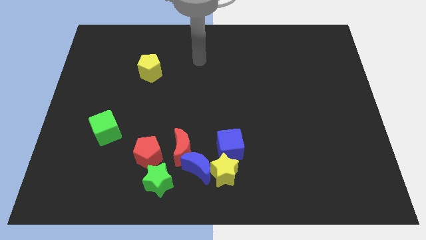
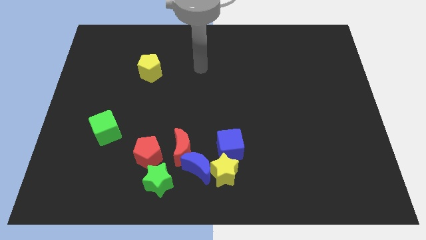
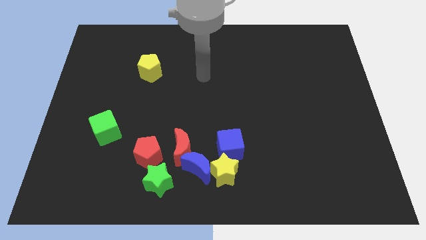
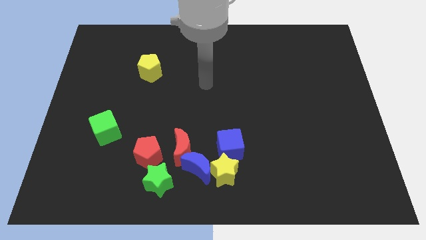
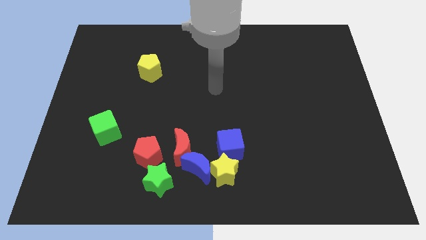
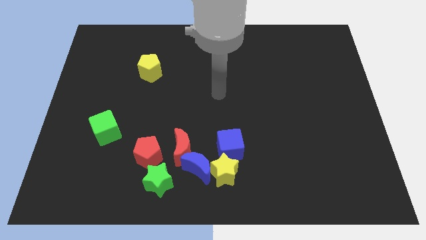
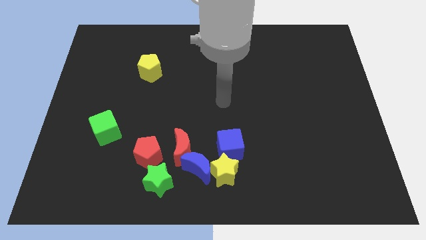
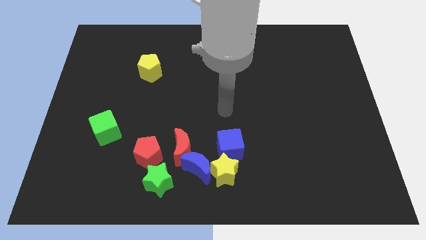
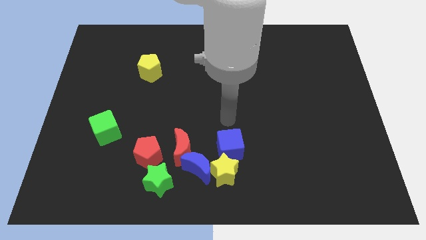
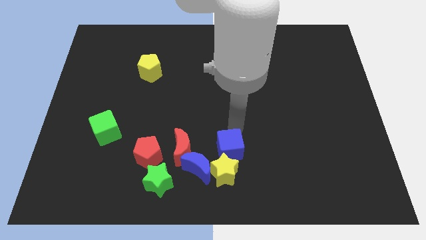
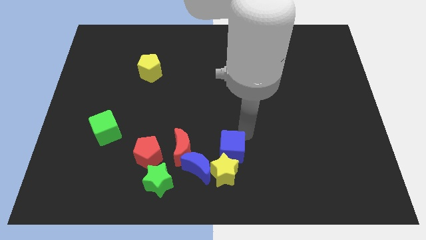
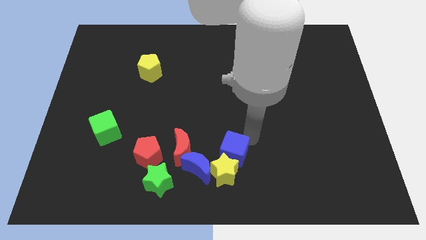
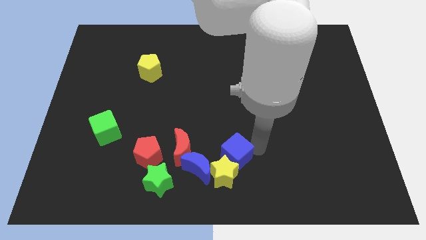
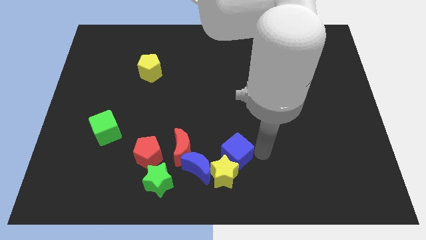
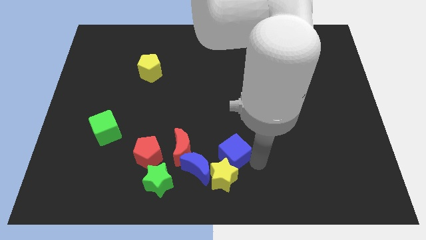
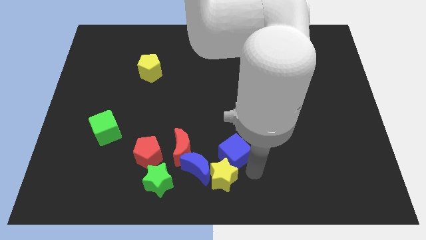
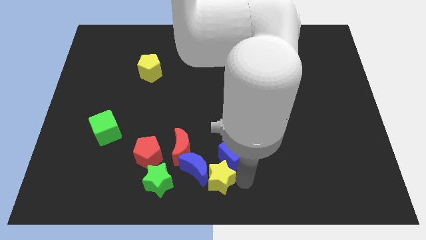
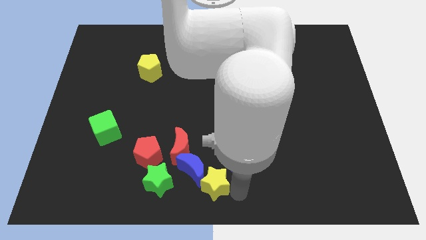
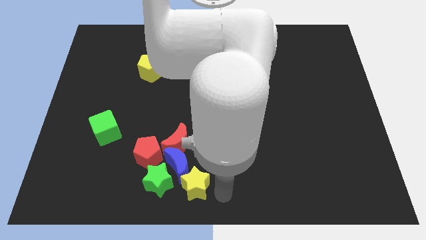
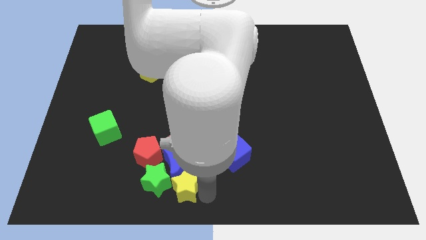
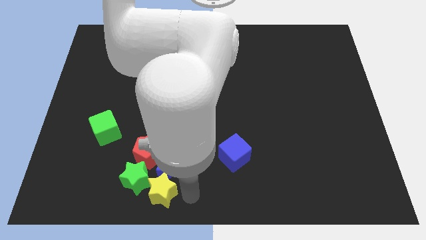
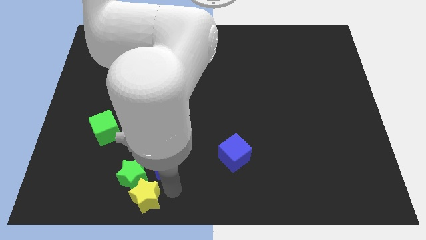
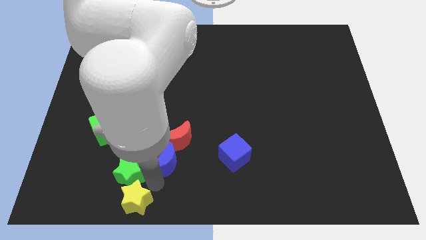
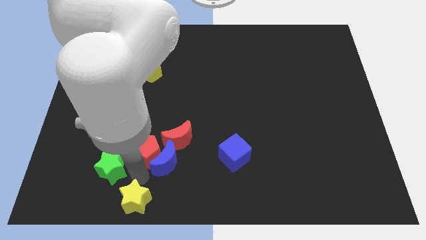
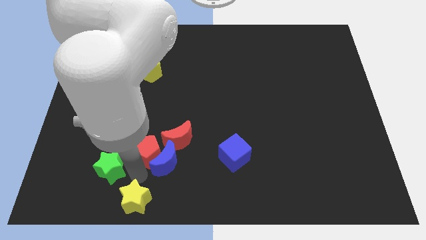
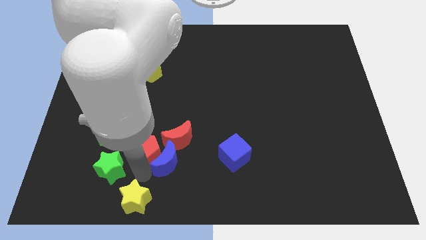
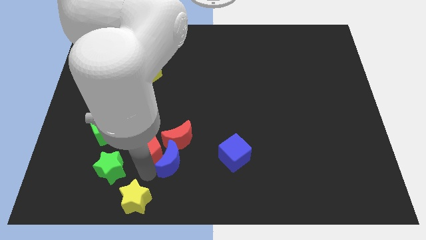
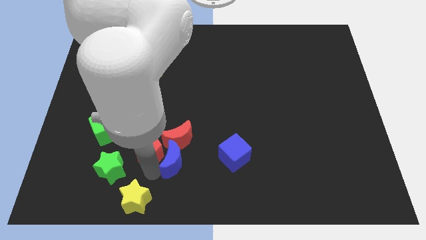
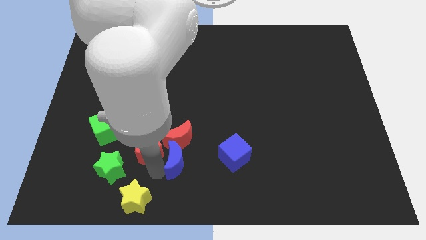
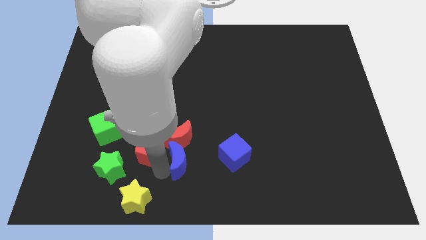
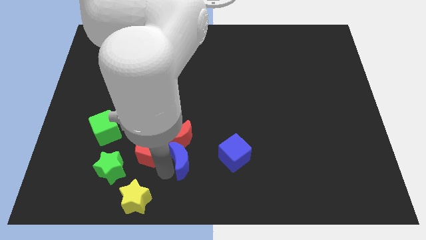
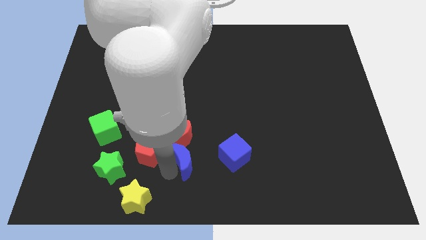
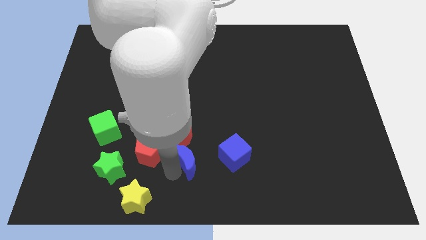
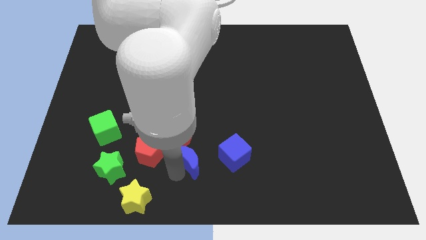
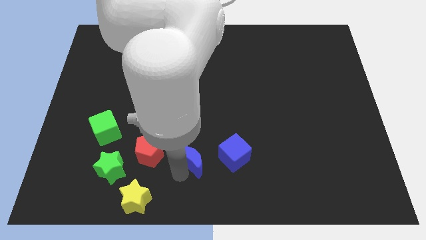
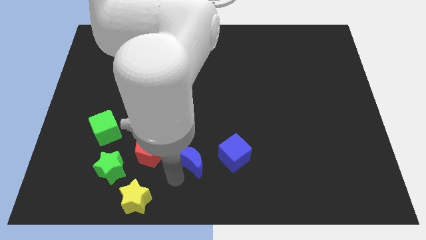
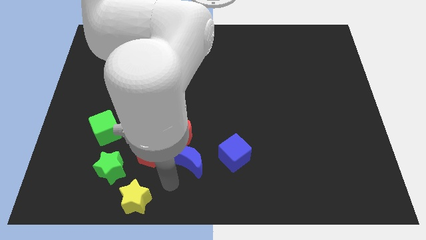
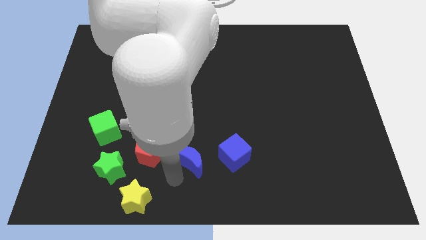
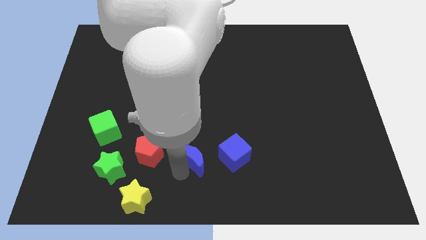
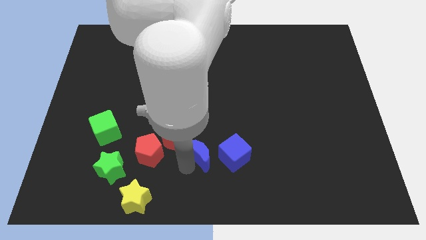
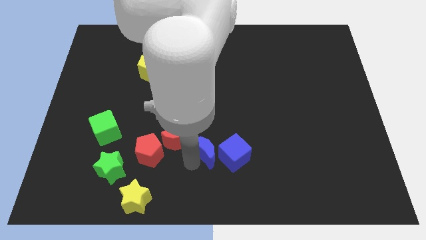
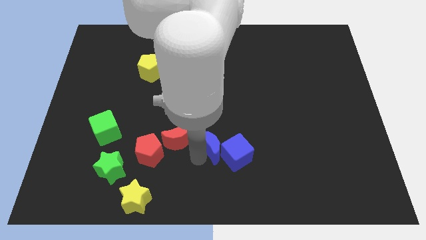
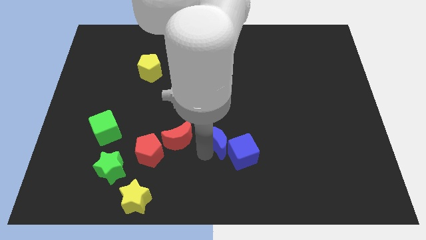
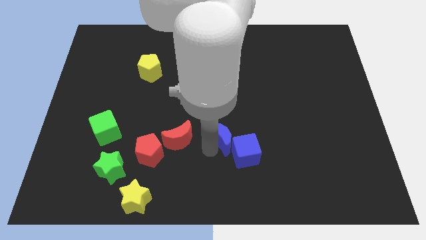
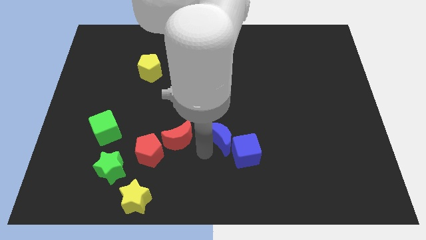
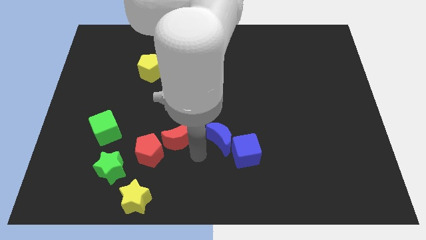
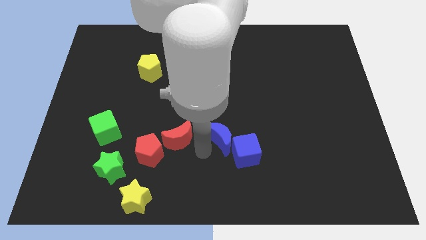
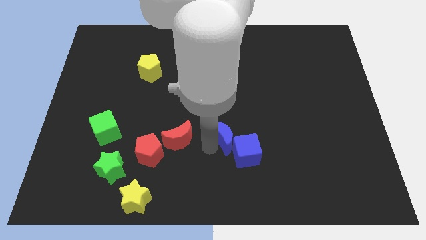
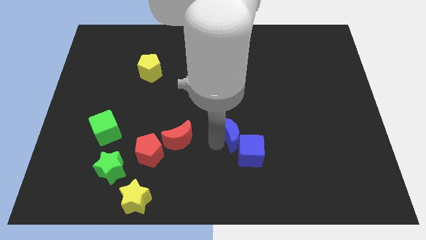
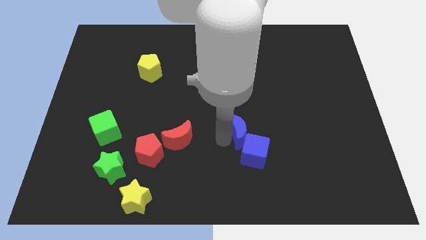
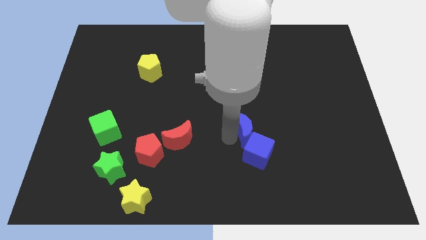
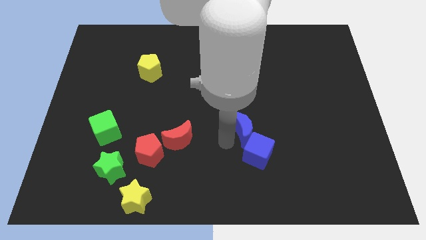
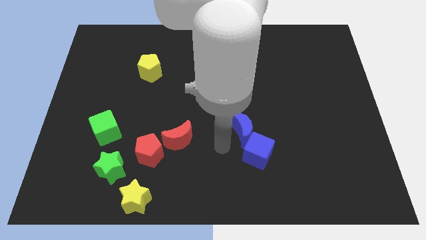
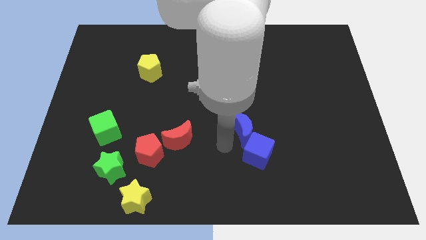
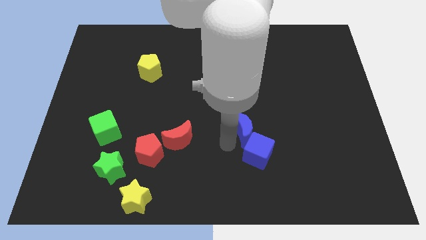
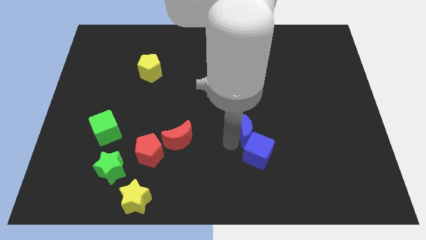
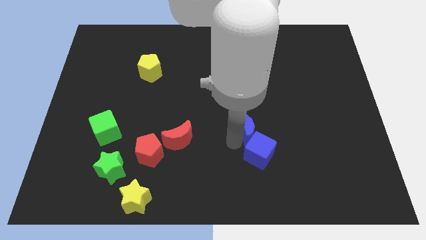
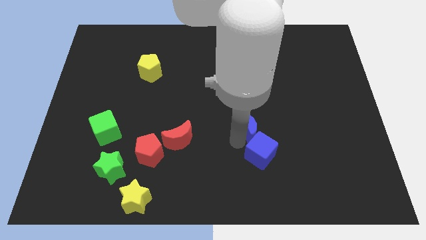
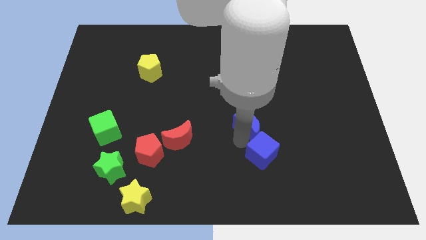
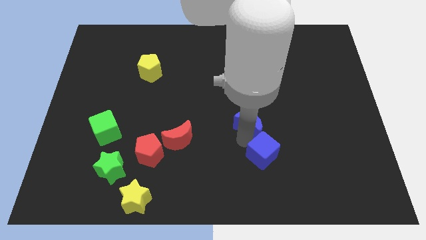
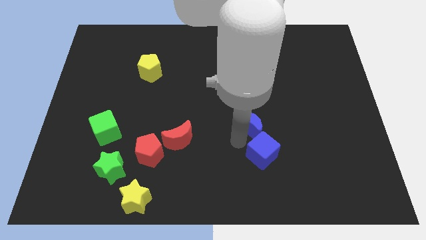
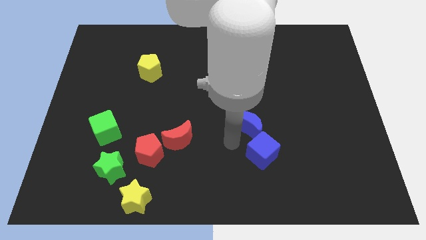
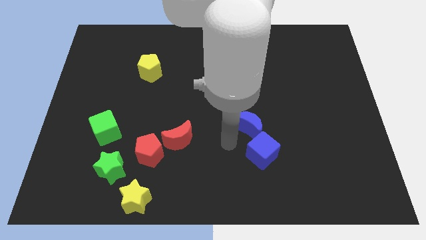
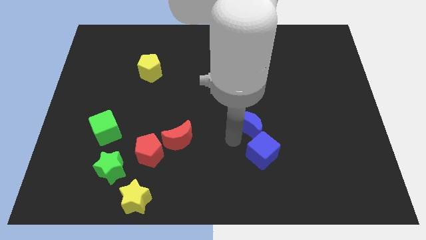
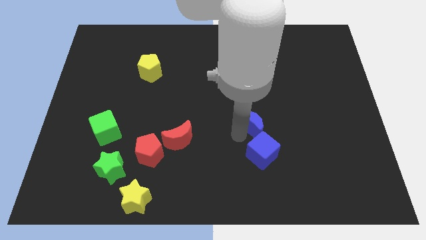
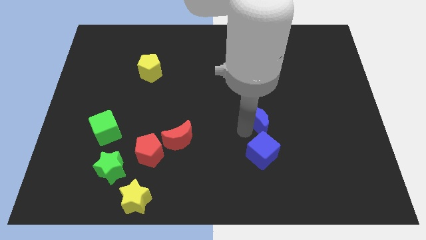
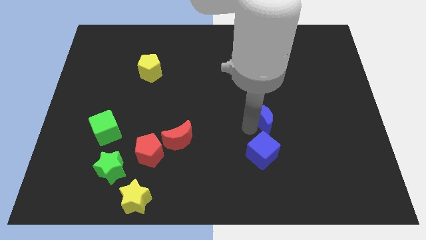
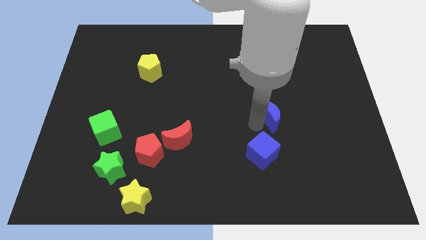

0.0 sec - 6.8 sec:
move the blue moon upwards and to the right

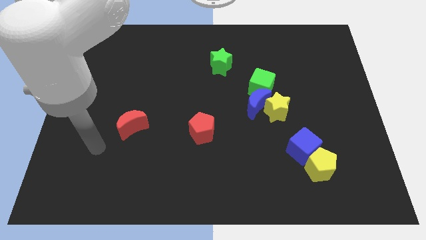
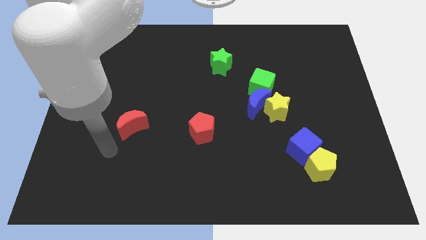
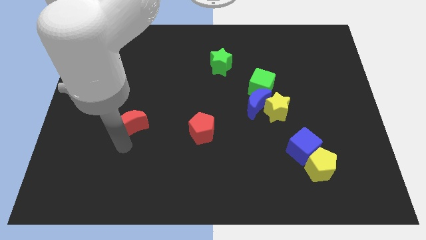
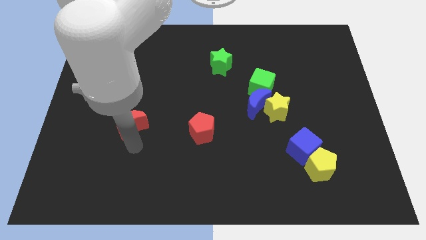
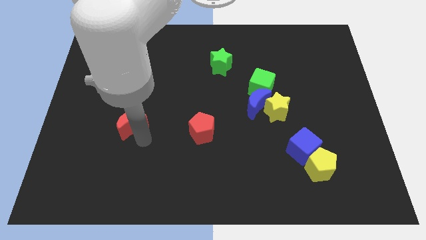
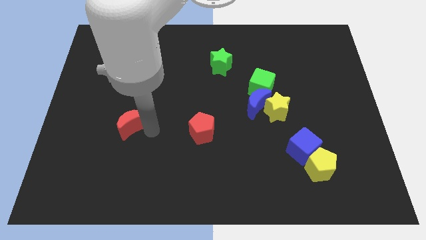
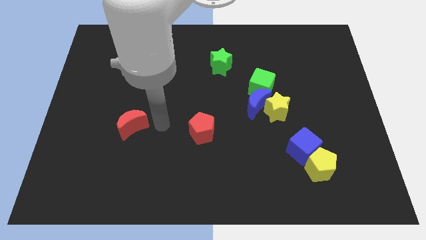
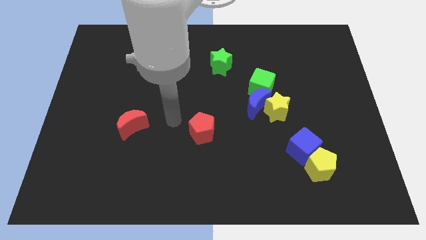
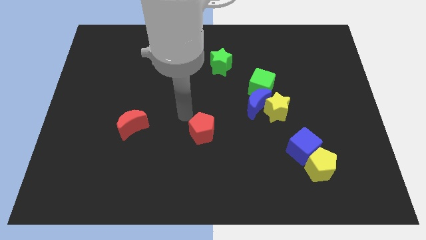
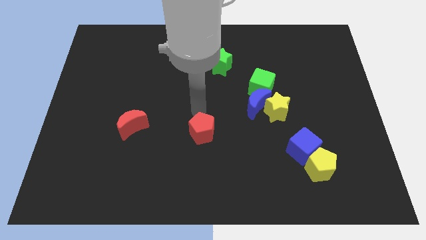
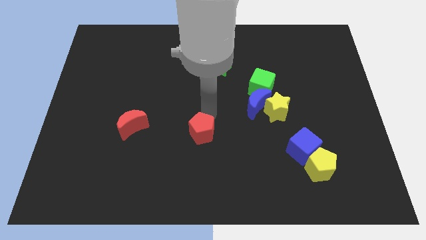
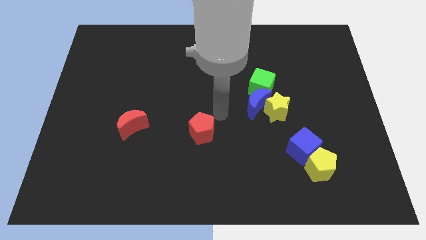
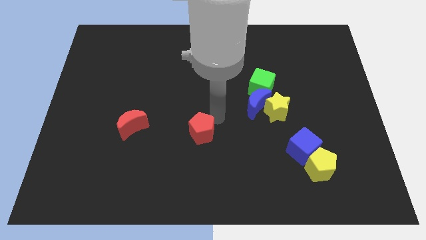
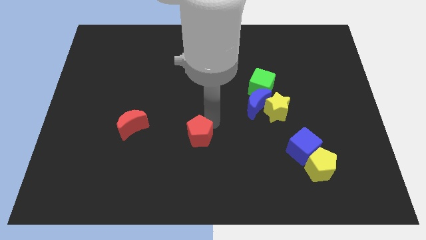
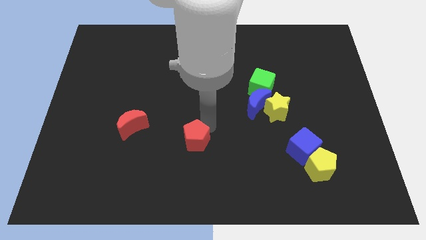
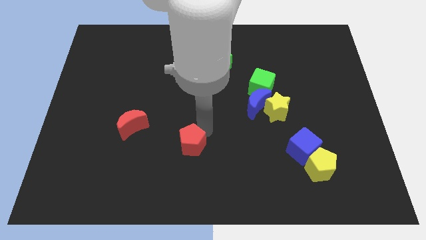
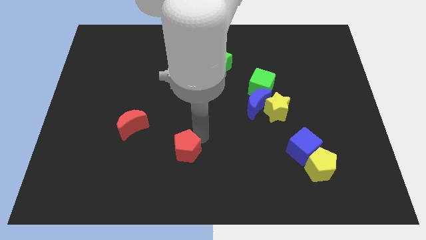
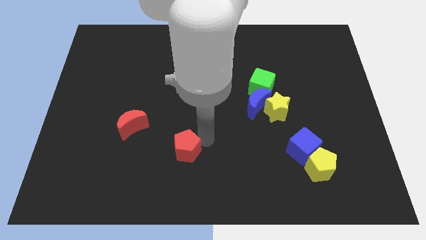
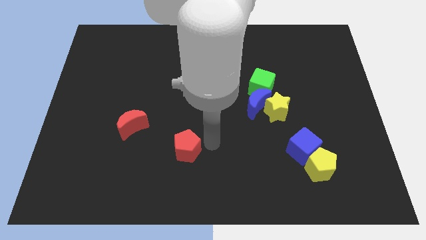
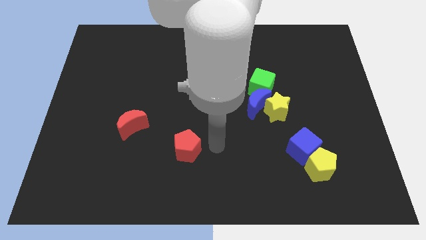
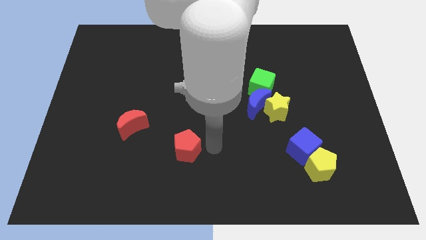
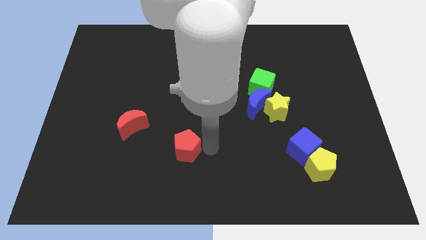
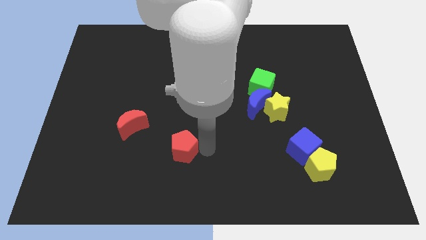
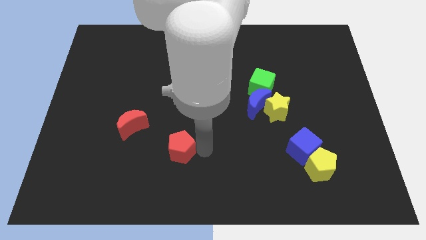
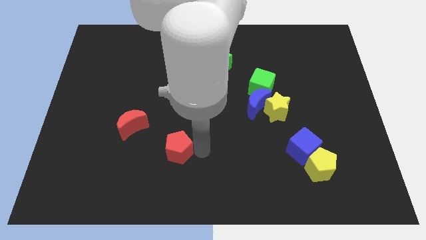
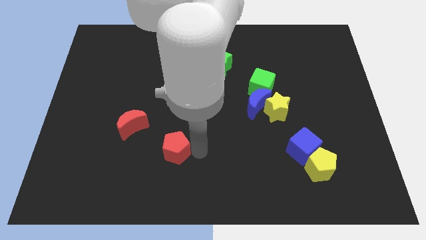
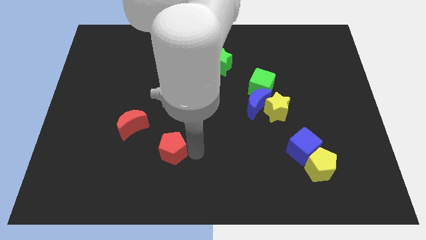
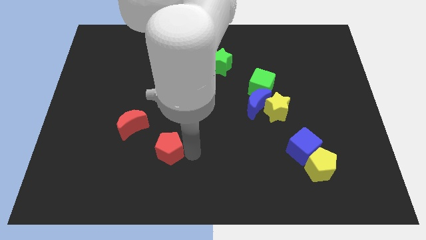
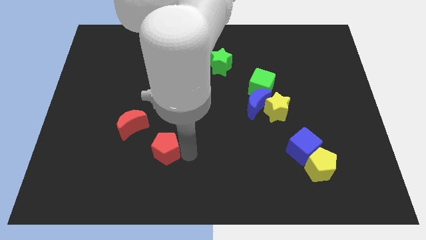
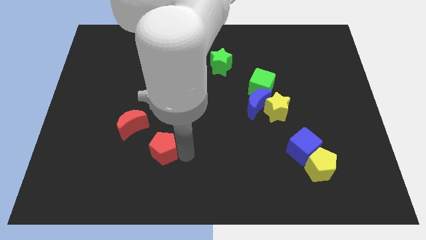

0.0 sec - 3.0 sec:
slightly push the red pentagon left
